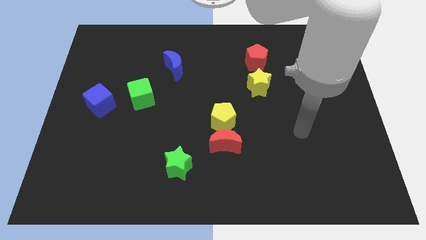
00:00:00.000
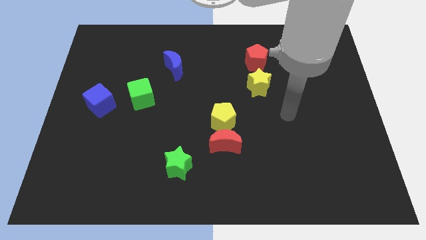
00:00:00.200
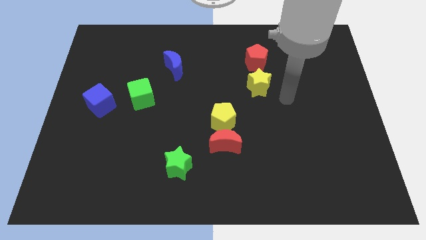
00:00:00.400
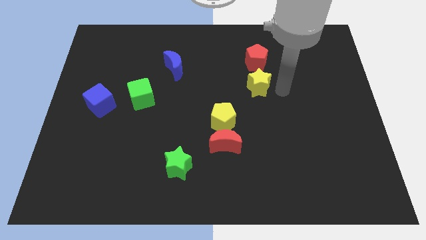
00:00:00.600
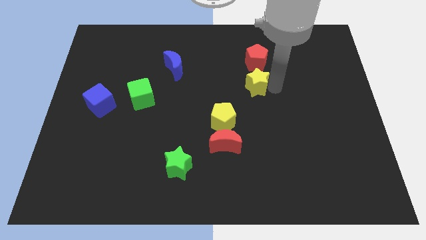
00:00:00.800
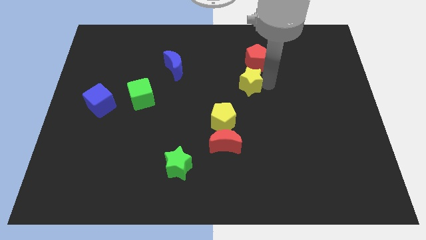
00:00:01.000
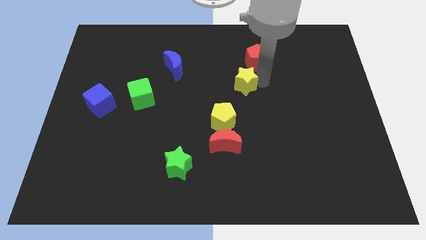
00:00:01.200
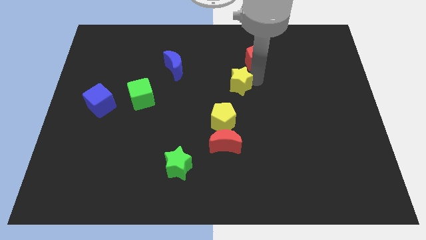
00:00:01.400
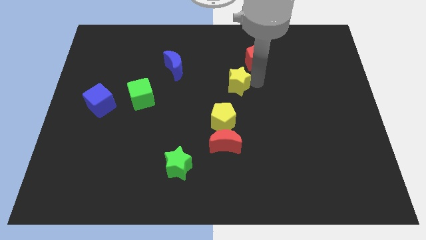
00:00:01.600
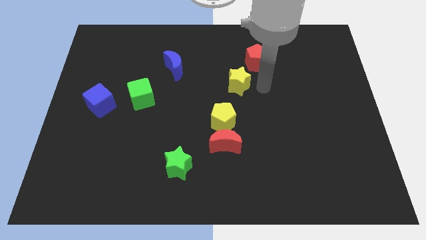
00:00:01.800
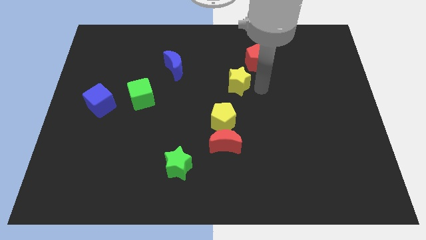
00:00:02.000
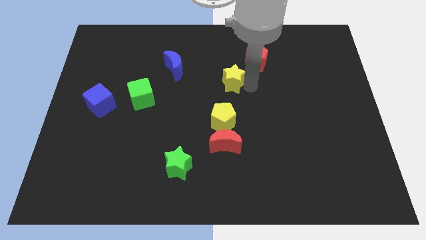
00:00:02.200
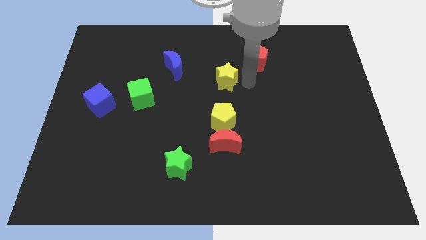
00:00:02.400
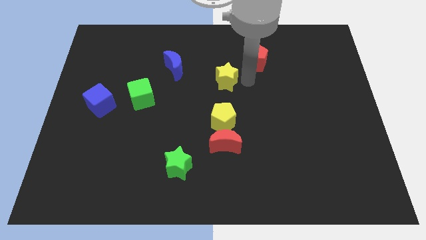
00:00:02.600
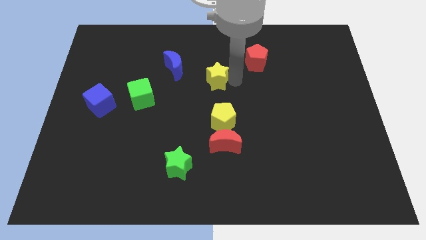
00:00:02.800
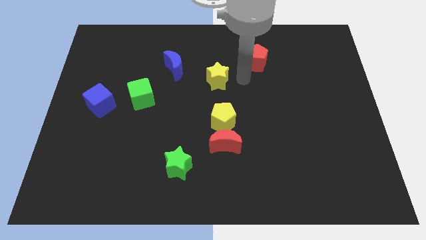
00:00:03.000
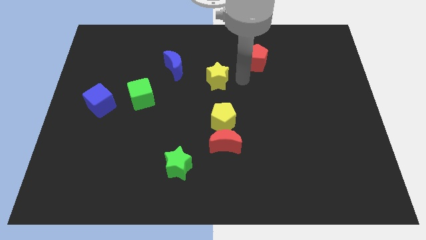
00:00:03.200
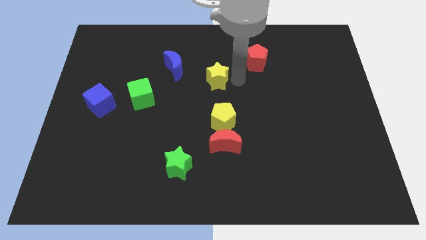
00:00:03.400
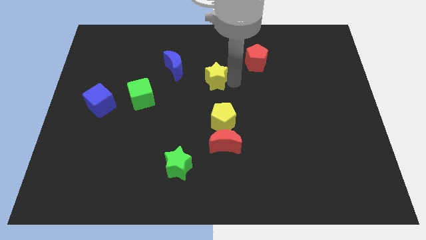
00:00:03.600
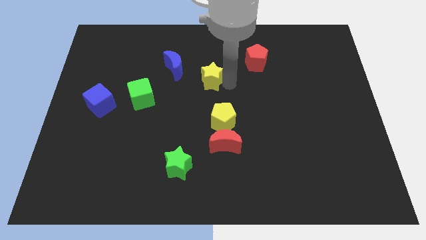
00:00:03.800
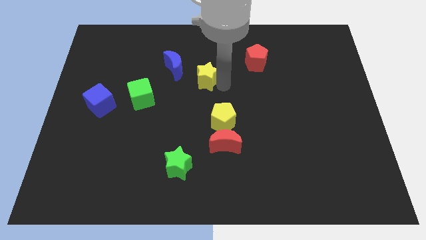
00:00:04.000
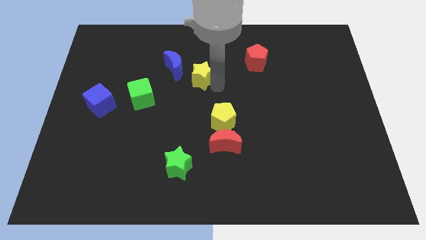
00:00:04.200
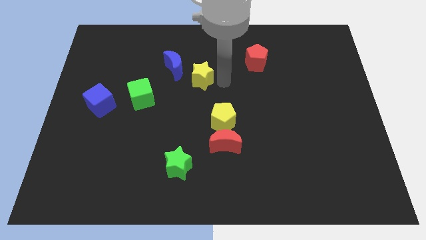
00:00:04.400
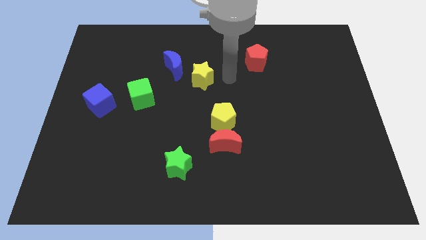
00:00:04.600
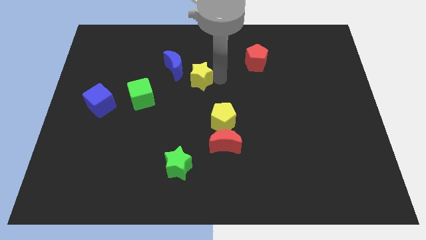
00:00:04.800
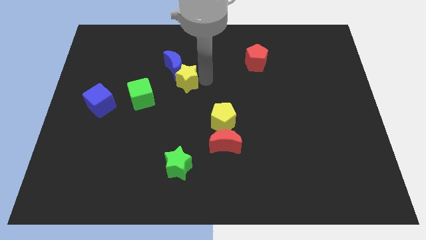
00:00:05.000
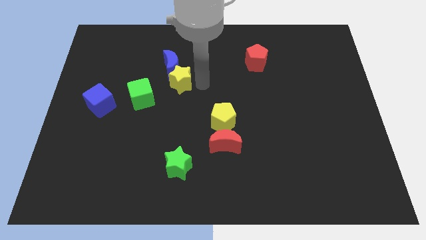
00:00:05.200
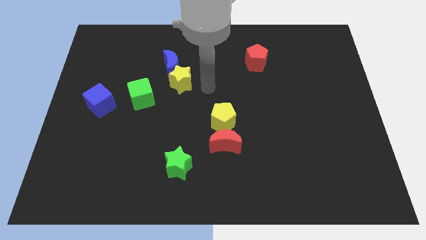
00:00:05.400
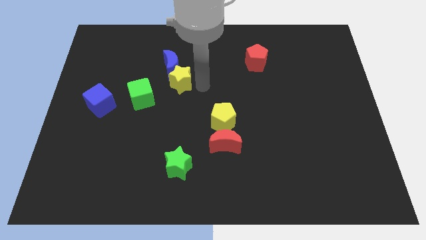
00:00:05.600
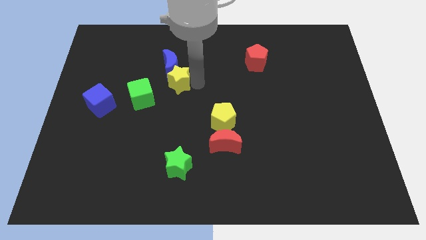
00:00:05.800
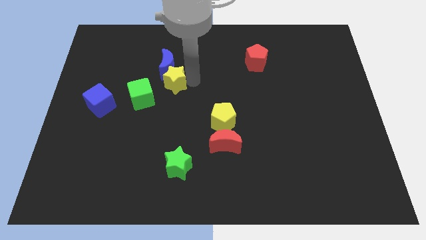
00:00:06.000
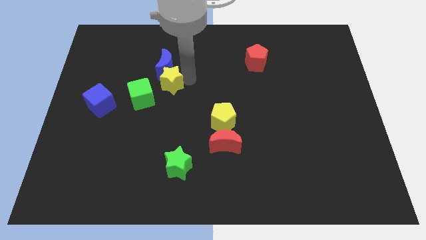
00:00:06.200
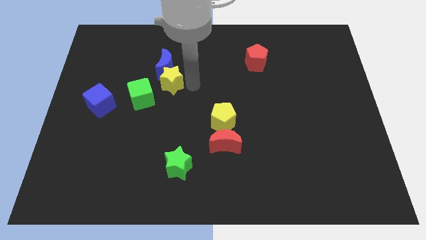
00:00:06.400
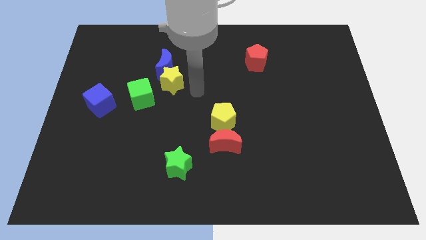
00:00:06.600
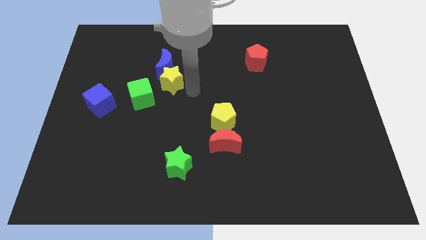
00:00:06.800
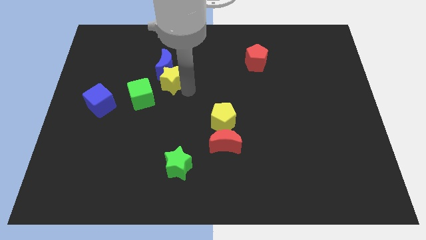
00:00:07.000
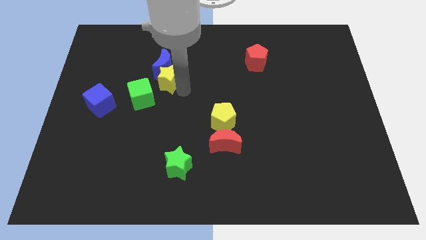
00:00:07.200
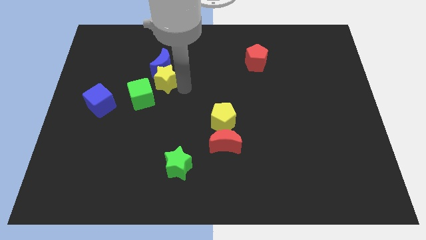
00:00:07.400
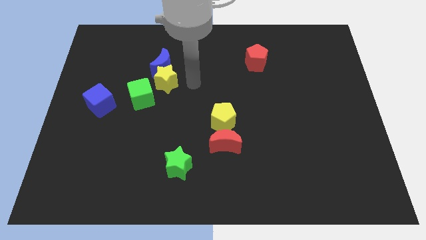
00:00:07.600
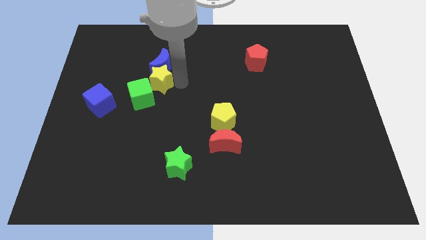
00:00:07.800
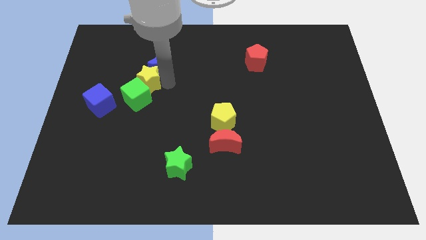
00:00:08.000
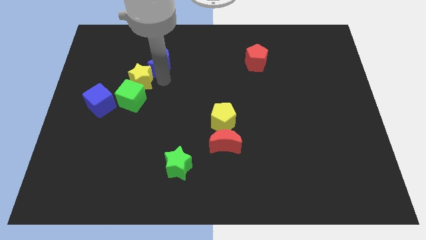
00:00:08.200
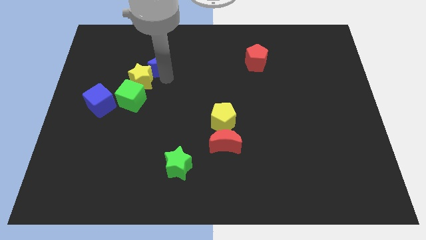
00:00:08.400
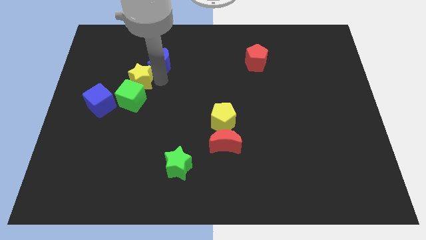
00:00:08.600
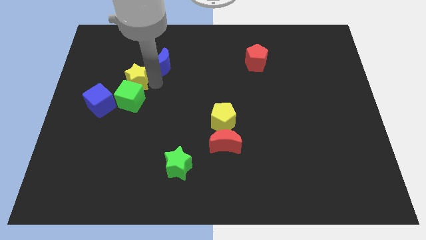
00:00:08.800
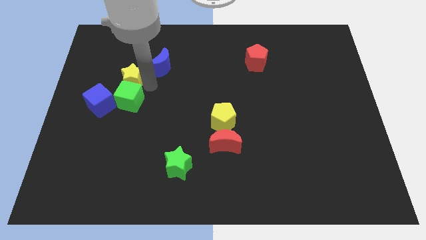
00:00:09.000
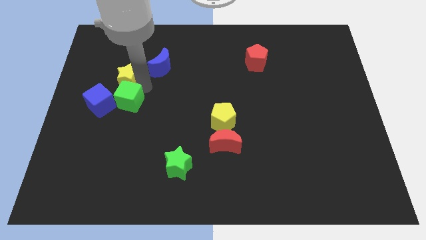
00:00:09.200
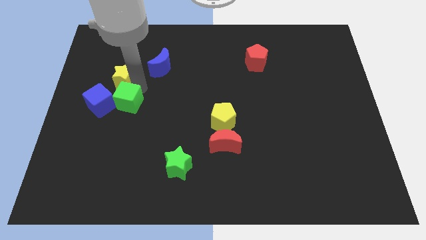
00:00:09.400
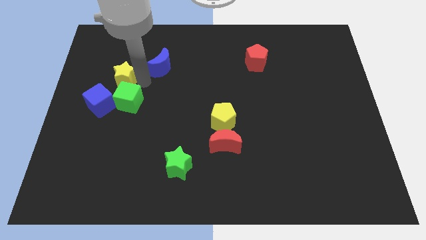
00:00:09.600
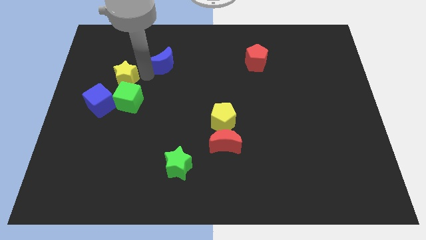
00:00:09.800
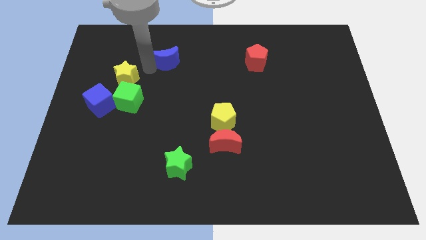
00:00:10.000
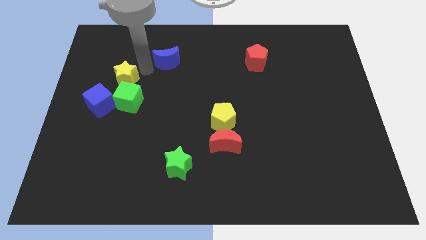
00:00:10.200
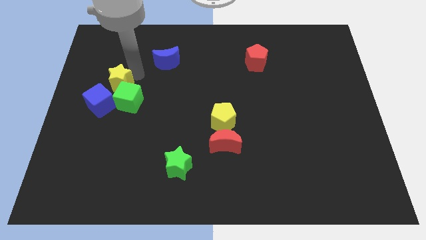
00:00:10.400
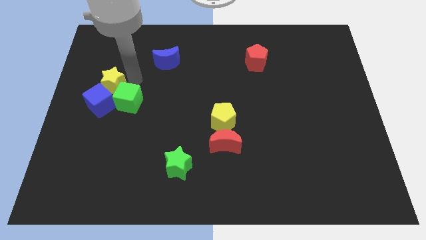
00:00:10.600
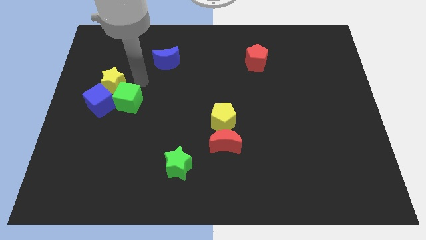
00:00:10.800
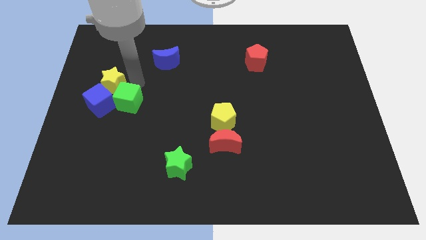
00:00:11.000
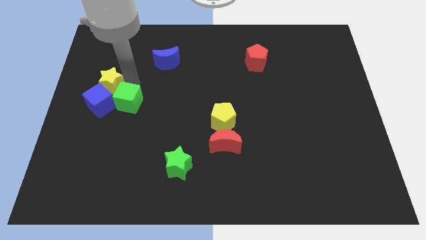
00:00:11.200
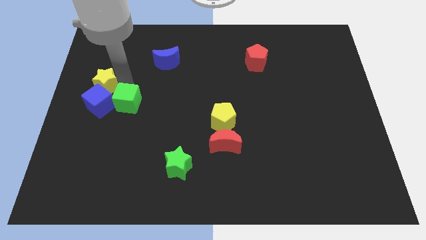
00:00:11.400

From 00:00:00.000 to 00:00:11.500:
push the yellow star to the center left
